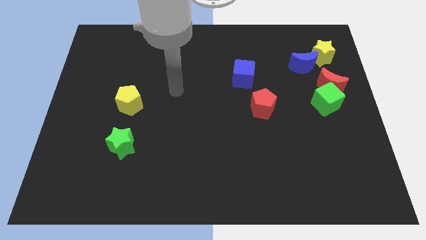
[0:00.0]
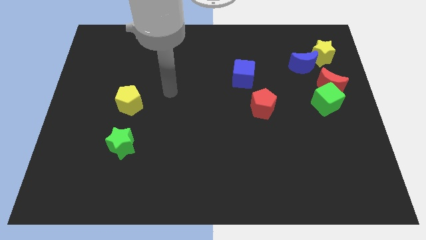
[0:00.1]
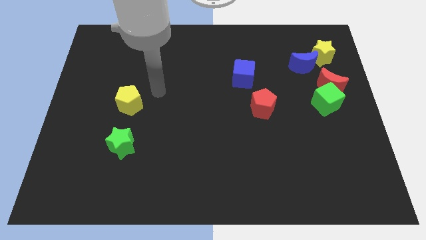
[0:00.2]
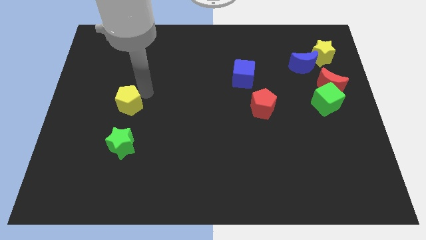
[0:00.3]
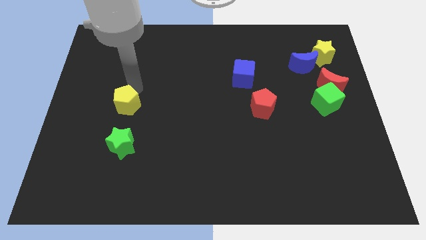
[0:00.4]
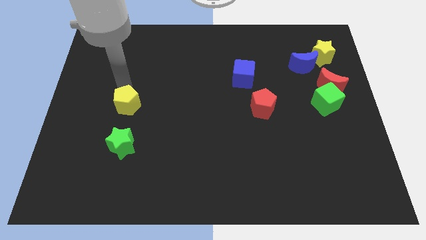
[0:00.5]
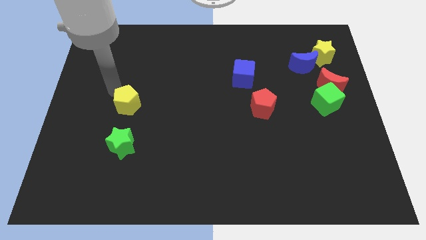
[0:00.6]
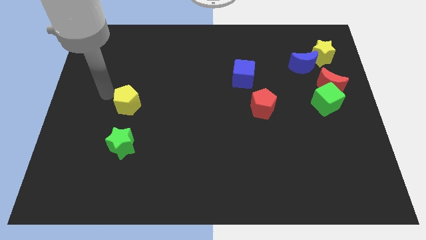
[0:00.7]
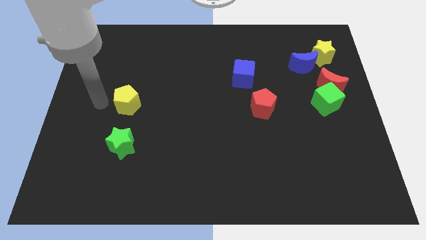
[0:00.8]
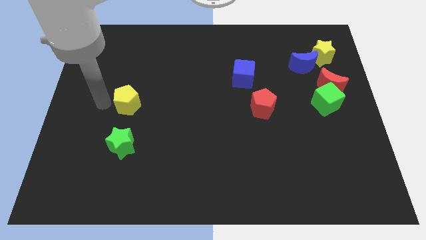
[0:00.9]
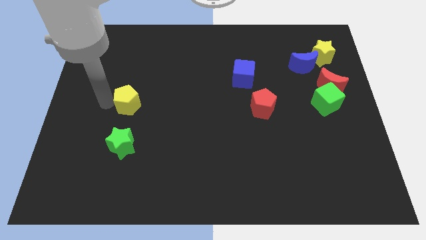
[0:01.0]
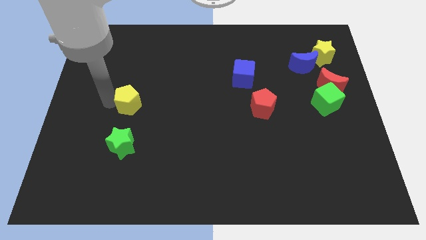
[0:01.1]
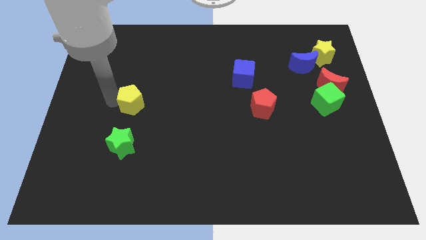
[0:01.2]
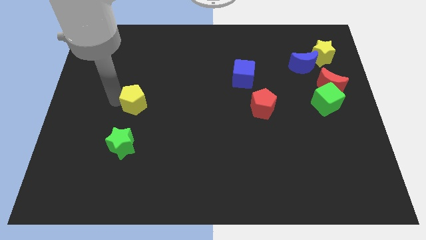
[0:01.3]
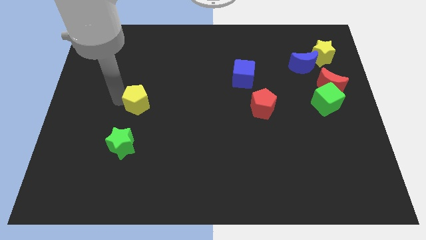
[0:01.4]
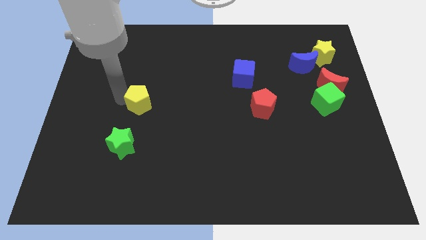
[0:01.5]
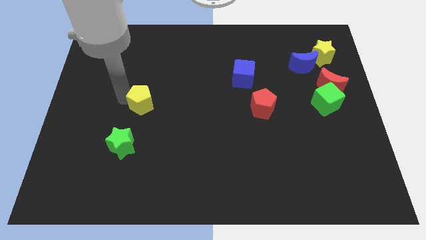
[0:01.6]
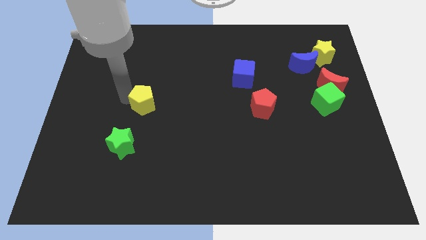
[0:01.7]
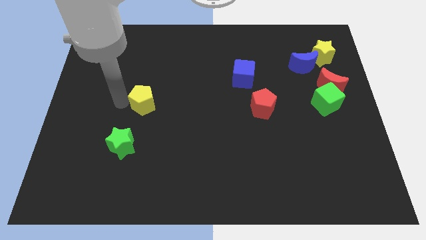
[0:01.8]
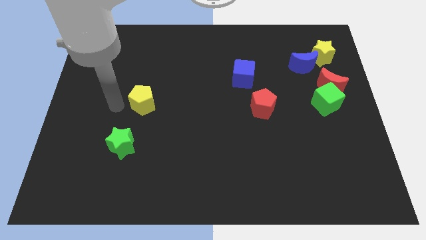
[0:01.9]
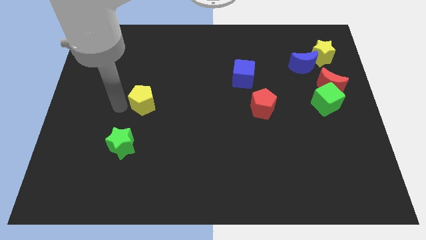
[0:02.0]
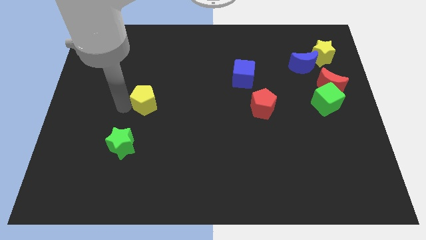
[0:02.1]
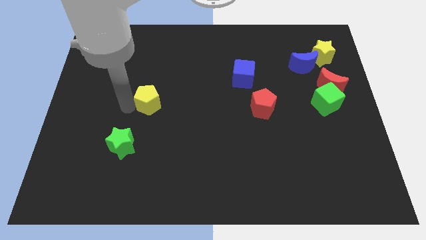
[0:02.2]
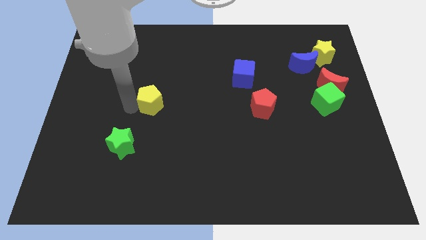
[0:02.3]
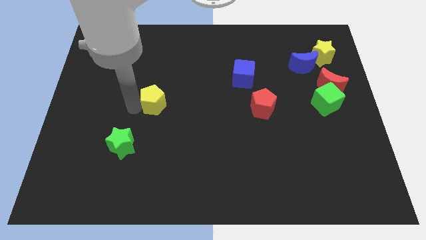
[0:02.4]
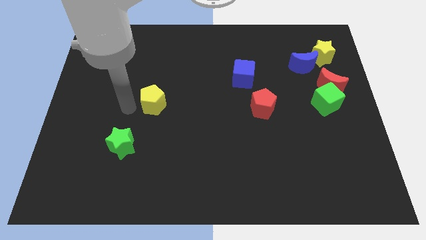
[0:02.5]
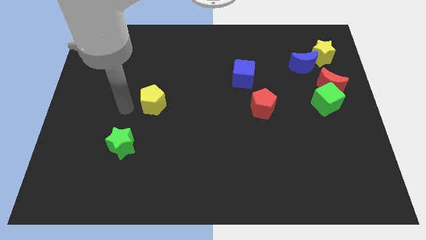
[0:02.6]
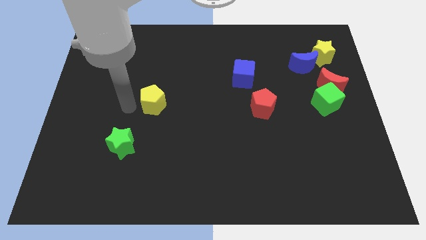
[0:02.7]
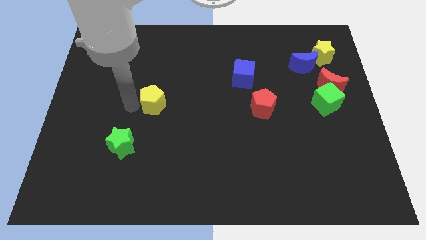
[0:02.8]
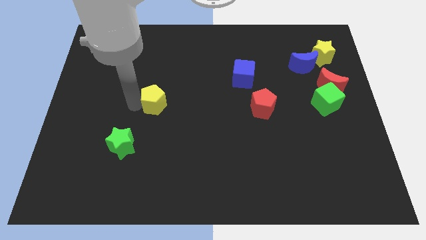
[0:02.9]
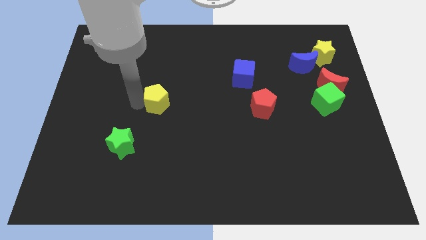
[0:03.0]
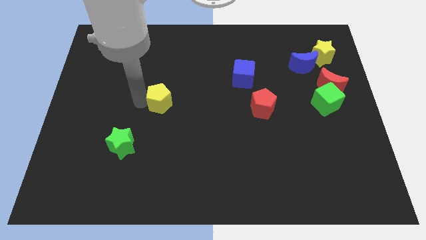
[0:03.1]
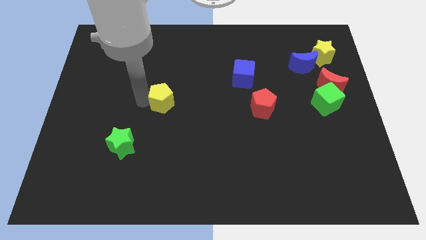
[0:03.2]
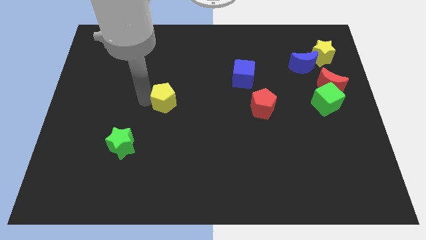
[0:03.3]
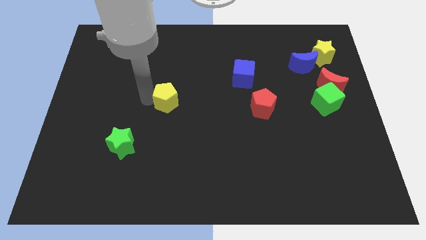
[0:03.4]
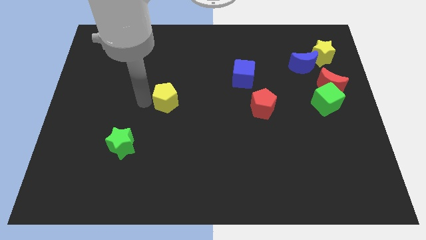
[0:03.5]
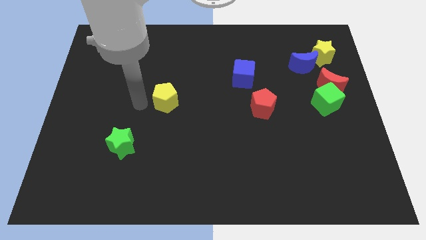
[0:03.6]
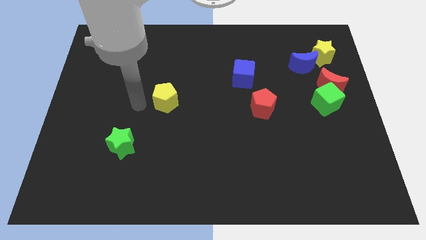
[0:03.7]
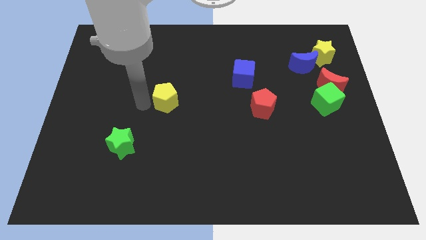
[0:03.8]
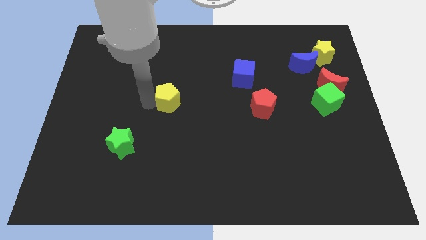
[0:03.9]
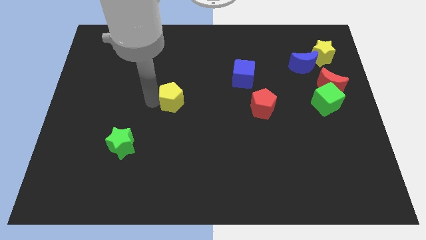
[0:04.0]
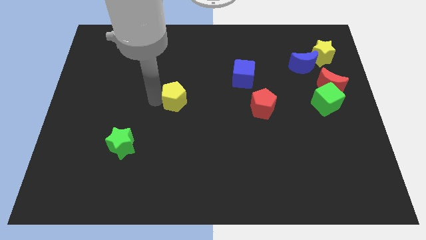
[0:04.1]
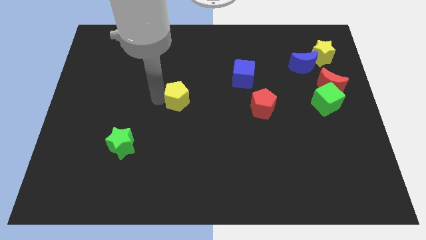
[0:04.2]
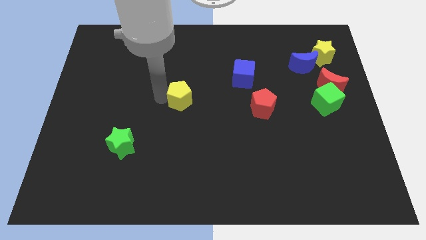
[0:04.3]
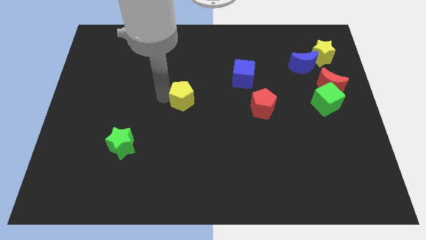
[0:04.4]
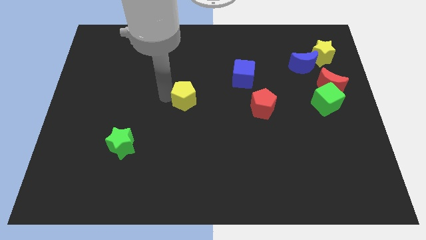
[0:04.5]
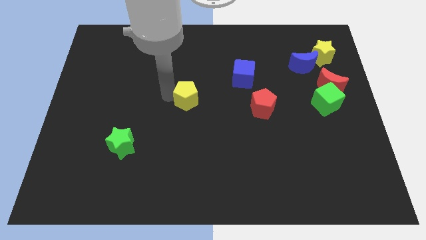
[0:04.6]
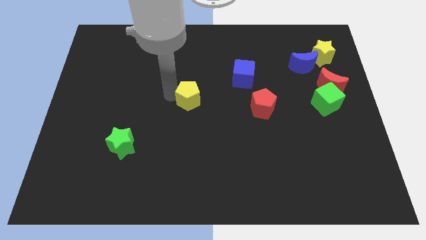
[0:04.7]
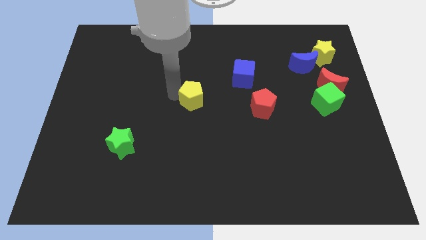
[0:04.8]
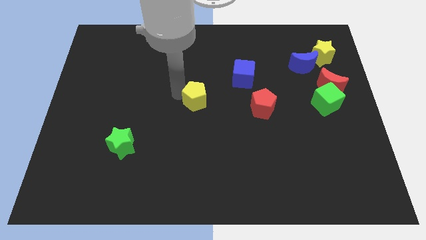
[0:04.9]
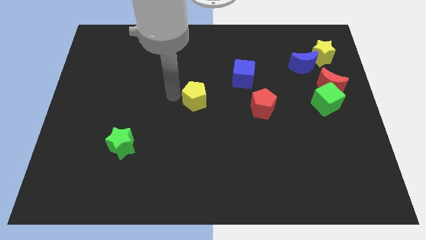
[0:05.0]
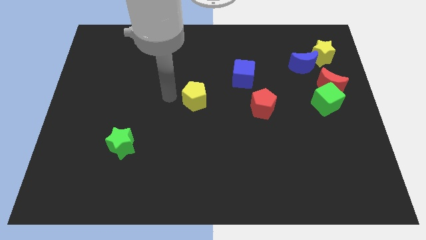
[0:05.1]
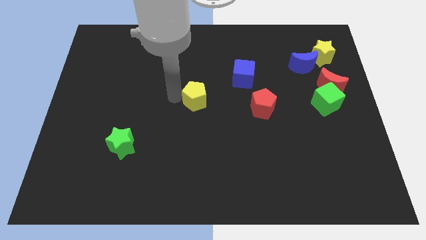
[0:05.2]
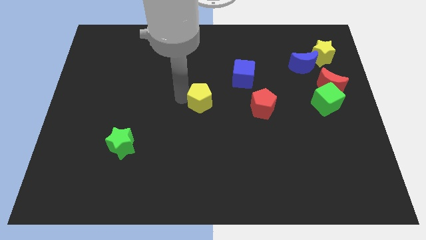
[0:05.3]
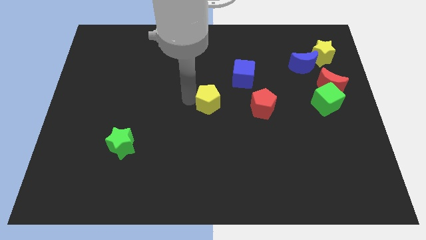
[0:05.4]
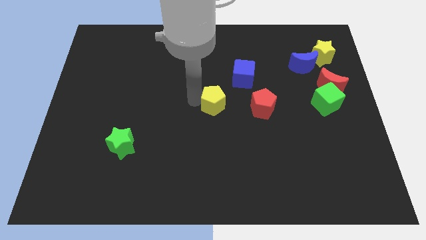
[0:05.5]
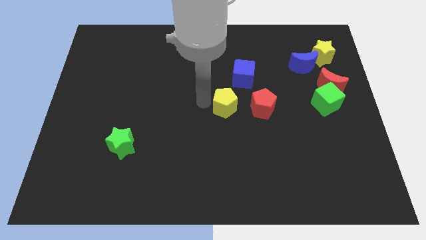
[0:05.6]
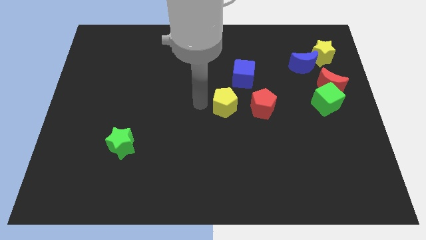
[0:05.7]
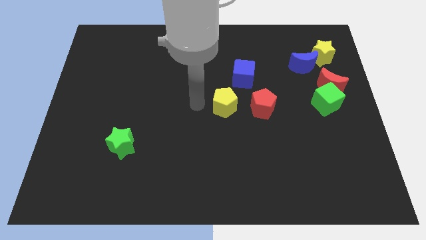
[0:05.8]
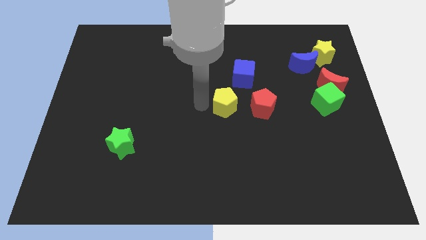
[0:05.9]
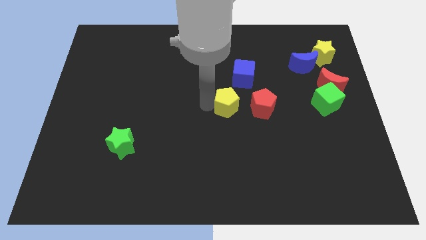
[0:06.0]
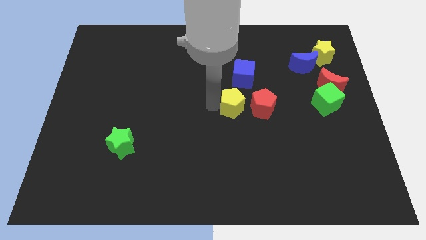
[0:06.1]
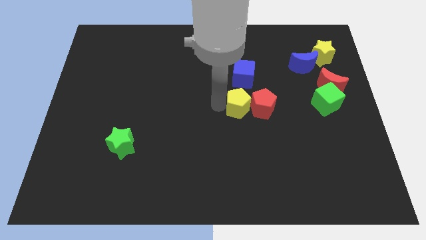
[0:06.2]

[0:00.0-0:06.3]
move the yellow pentagon next to the red pentagon
